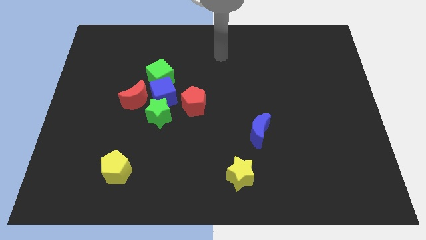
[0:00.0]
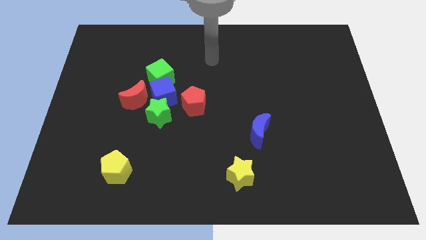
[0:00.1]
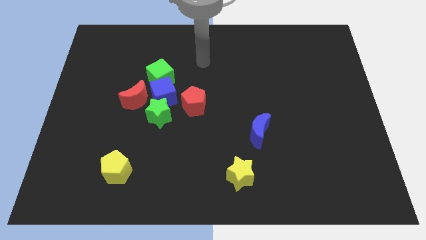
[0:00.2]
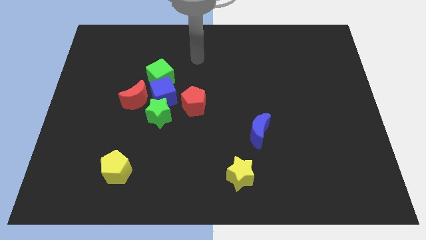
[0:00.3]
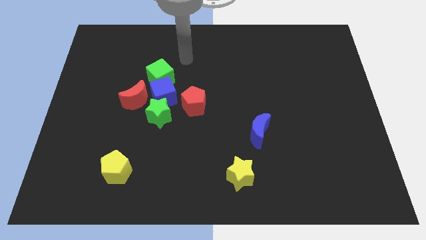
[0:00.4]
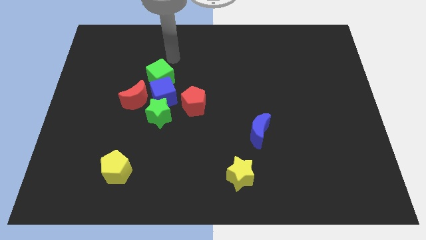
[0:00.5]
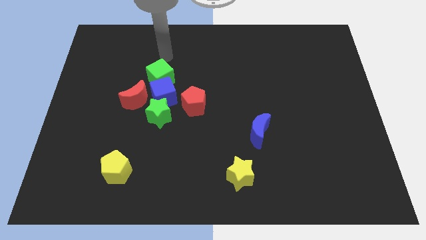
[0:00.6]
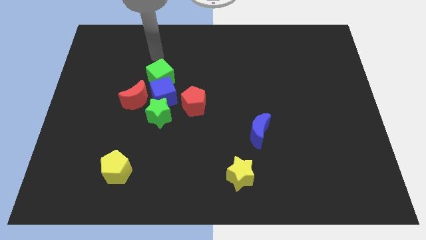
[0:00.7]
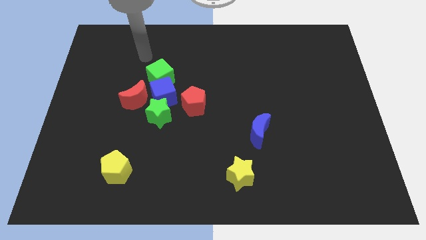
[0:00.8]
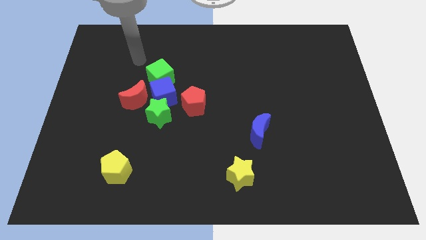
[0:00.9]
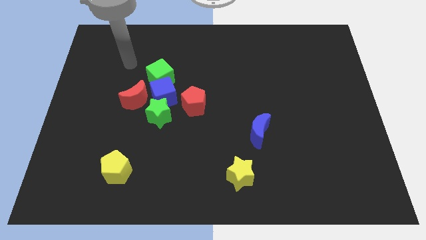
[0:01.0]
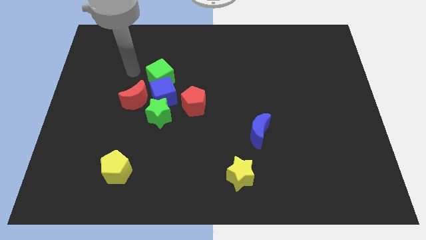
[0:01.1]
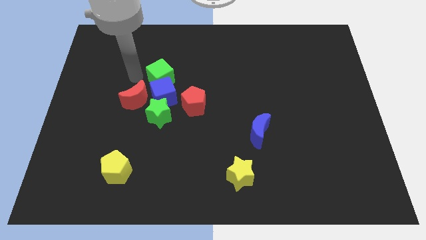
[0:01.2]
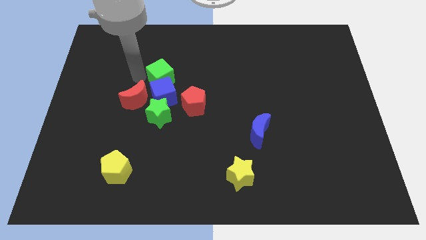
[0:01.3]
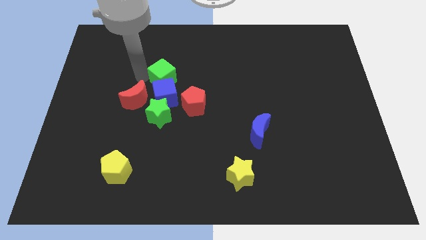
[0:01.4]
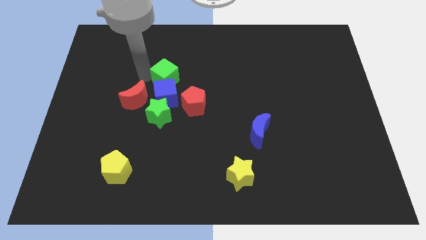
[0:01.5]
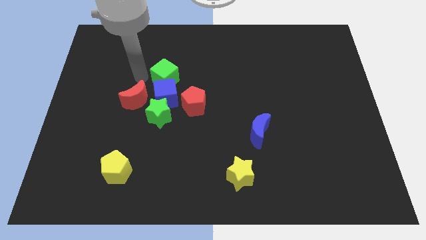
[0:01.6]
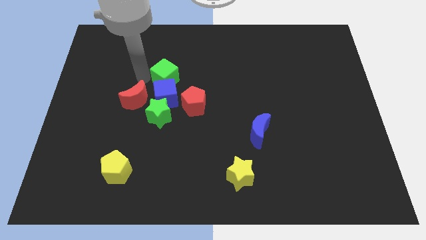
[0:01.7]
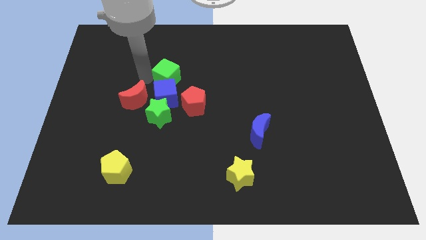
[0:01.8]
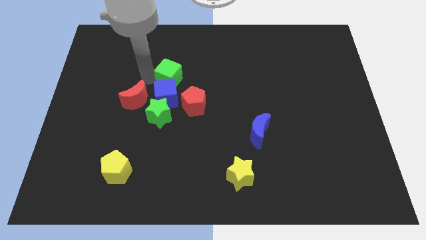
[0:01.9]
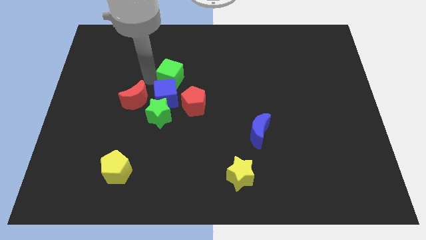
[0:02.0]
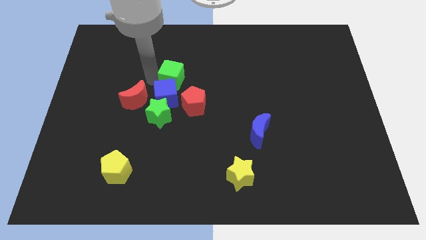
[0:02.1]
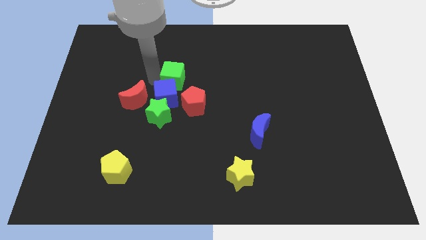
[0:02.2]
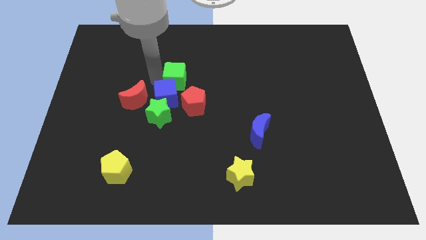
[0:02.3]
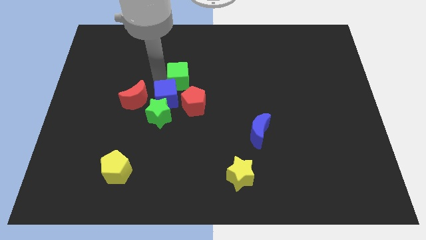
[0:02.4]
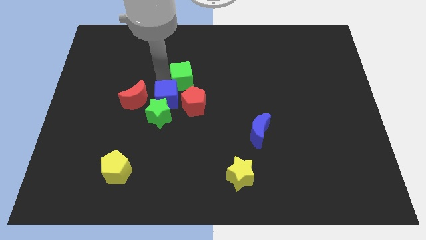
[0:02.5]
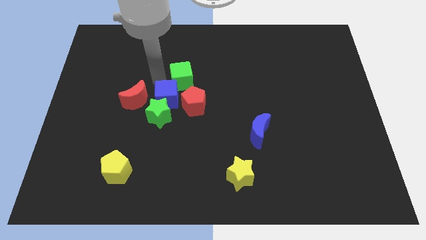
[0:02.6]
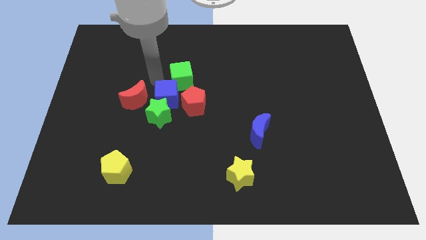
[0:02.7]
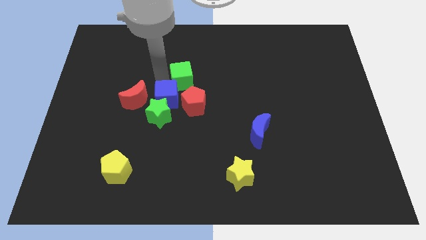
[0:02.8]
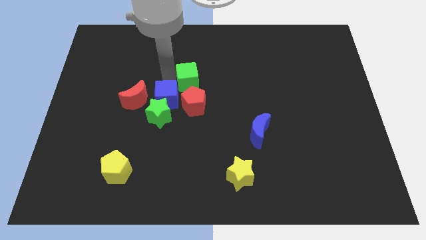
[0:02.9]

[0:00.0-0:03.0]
slide the green cube to the right a bit

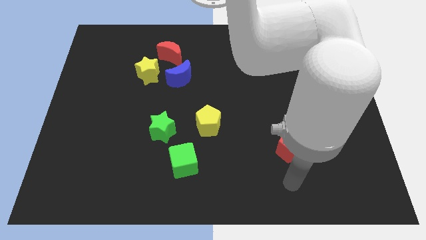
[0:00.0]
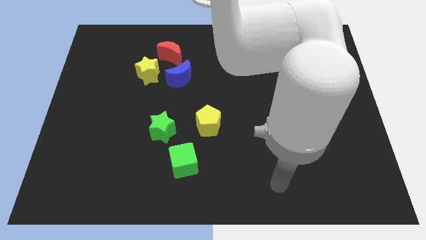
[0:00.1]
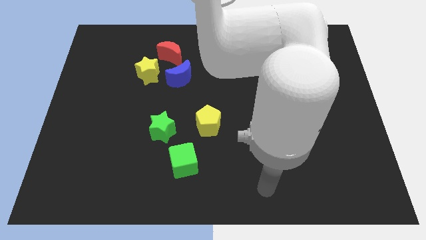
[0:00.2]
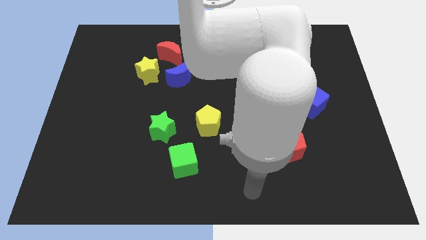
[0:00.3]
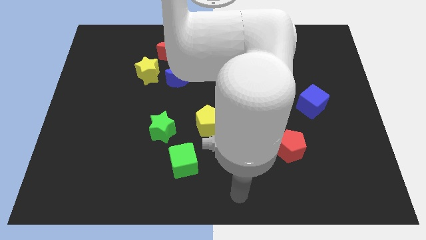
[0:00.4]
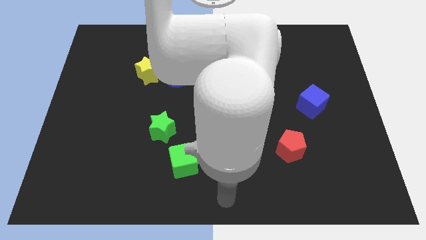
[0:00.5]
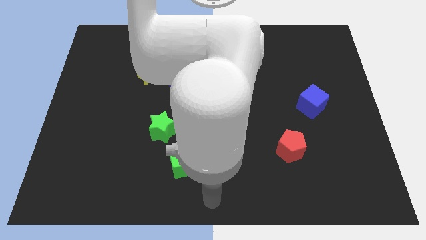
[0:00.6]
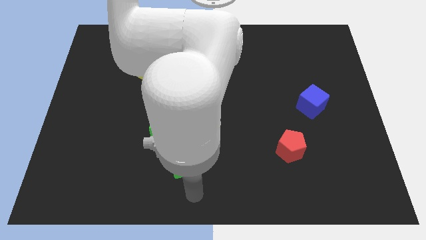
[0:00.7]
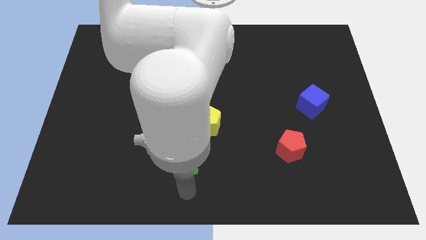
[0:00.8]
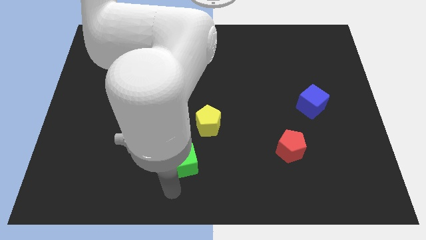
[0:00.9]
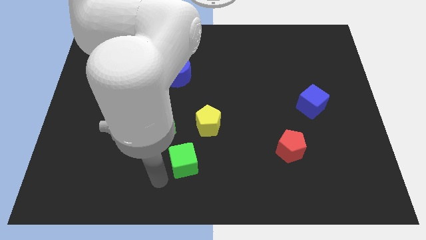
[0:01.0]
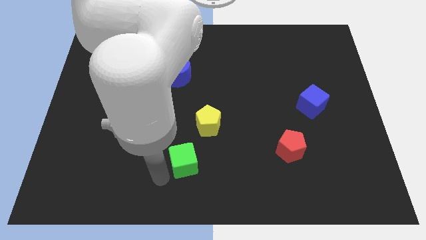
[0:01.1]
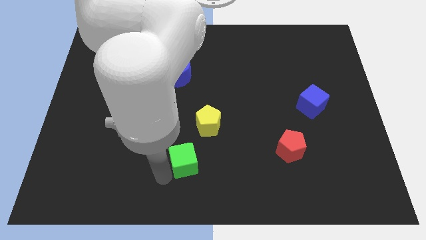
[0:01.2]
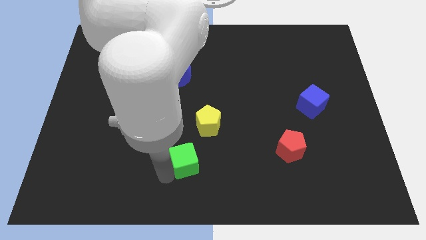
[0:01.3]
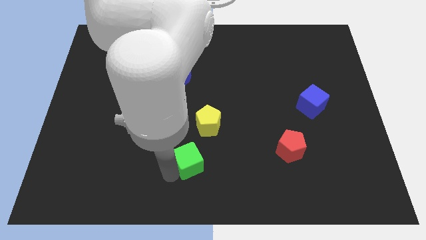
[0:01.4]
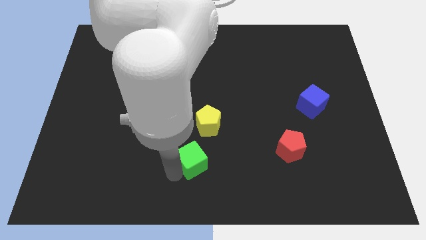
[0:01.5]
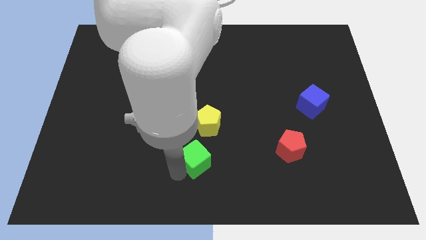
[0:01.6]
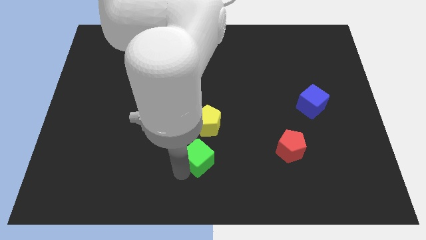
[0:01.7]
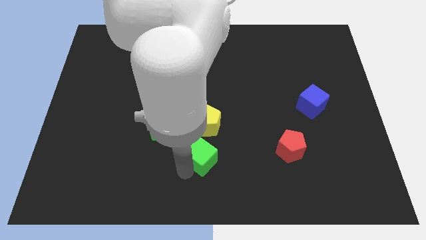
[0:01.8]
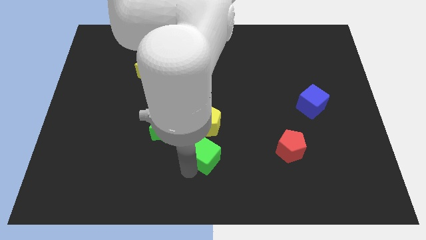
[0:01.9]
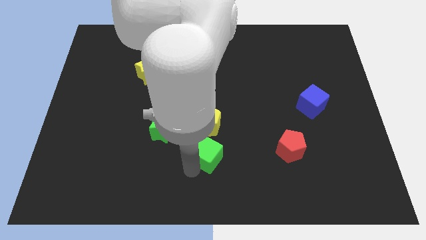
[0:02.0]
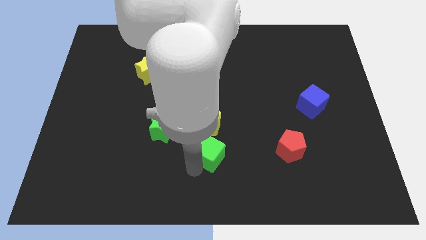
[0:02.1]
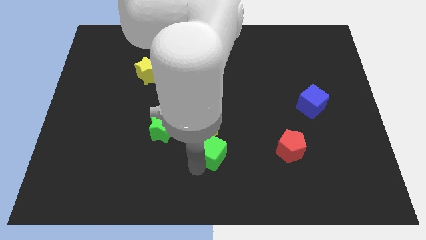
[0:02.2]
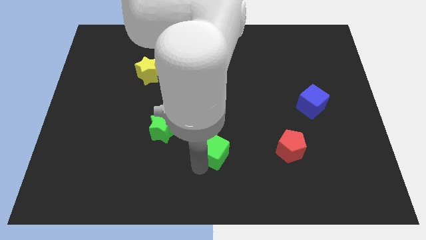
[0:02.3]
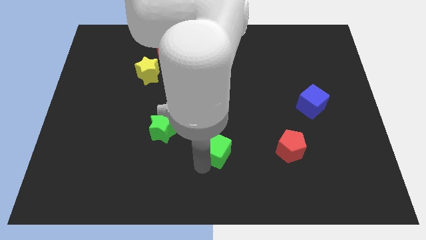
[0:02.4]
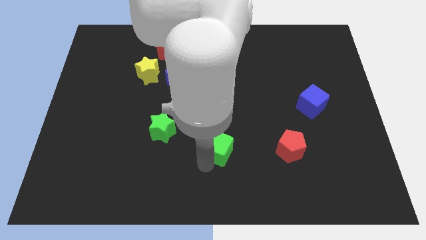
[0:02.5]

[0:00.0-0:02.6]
move the green cube a bit upwards and then right

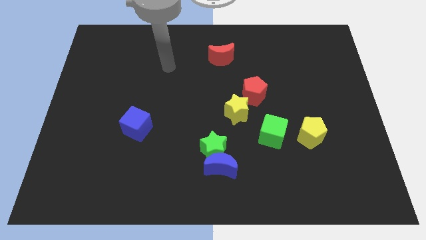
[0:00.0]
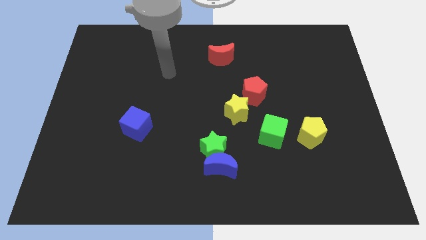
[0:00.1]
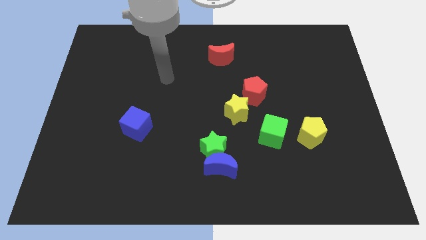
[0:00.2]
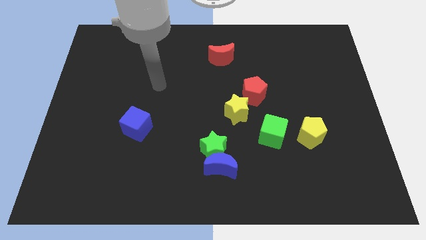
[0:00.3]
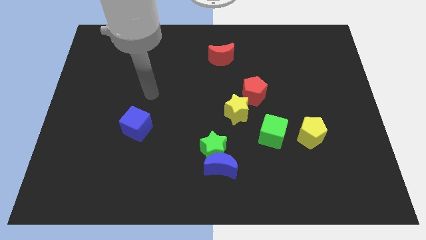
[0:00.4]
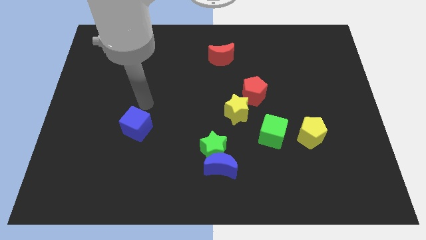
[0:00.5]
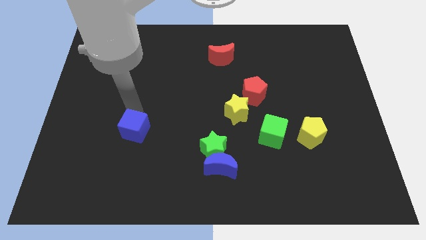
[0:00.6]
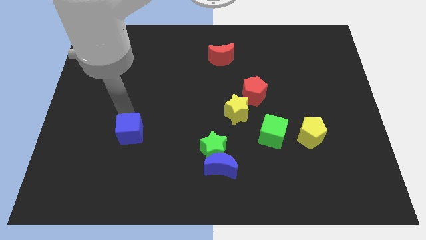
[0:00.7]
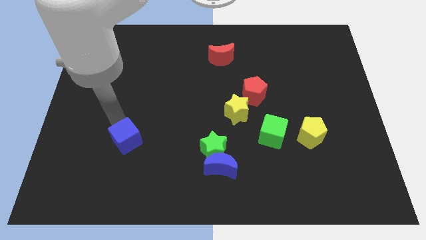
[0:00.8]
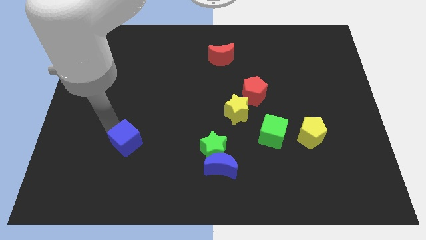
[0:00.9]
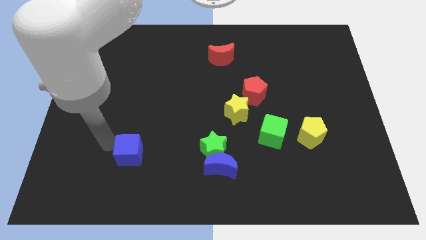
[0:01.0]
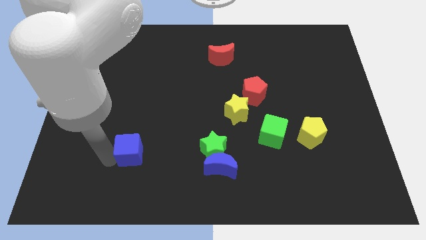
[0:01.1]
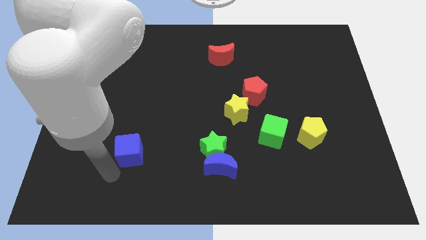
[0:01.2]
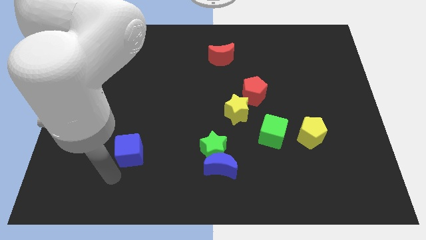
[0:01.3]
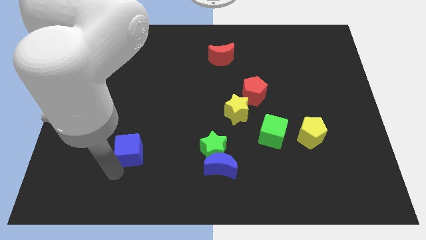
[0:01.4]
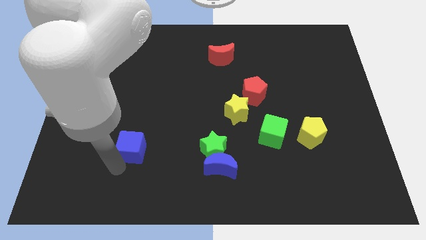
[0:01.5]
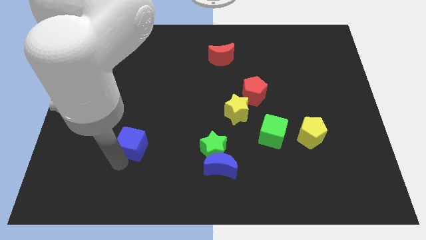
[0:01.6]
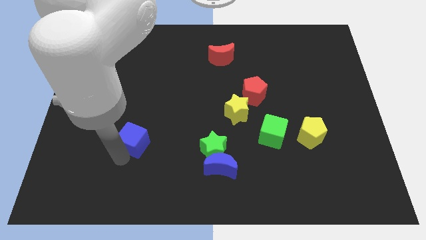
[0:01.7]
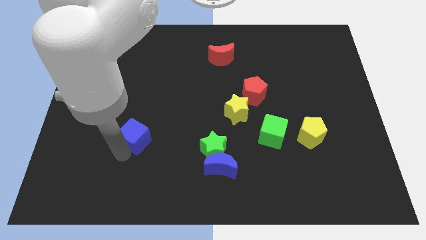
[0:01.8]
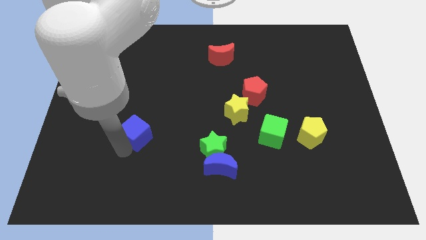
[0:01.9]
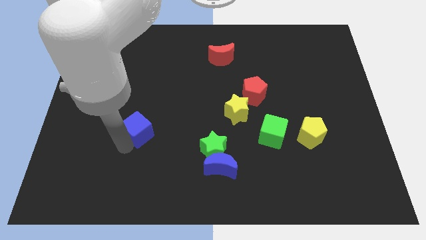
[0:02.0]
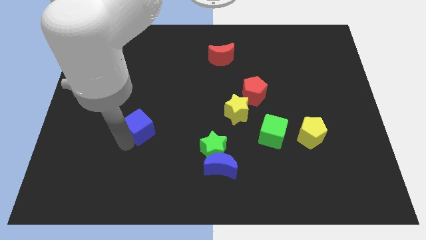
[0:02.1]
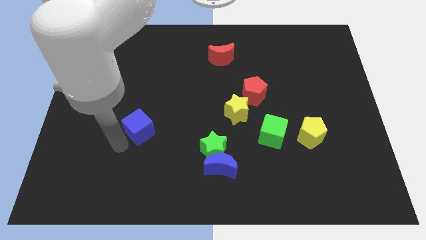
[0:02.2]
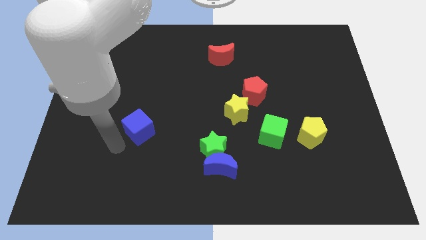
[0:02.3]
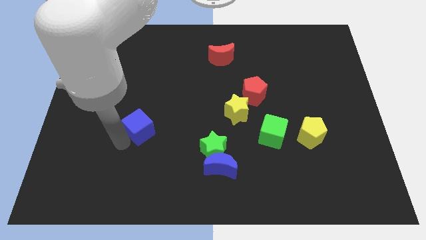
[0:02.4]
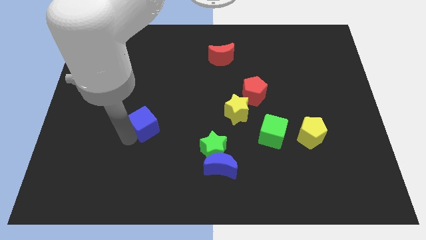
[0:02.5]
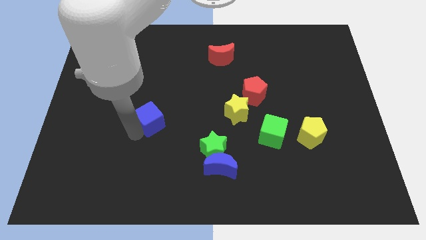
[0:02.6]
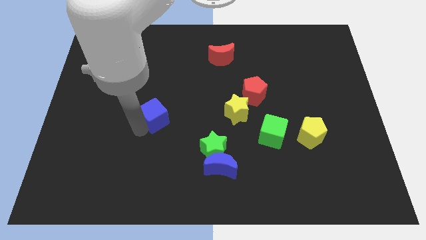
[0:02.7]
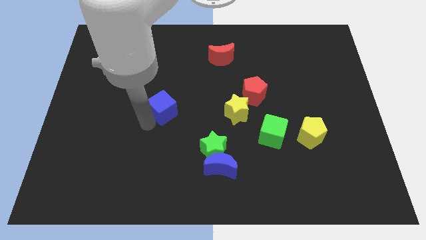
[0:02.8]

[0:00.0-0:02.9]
slide the blue cube slightly up and right
